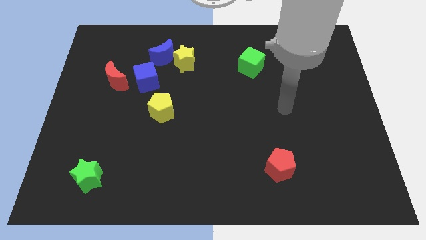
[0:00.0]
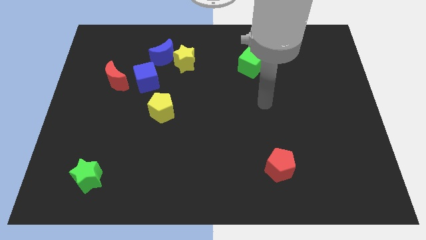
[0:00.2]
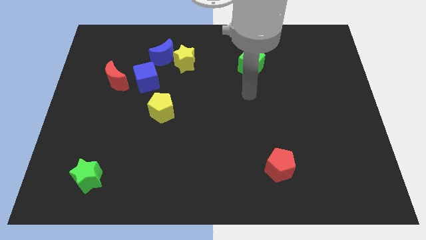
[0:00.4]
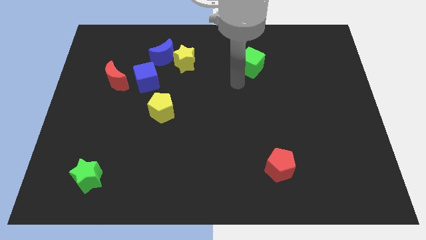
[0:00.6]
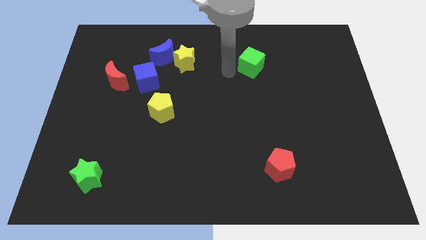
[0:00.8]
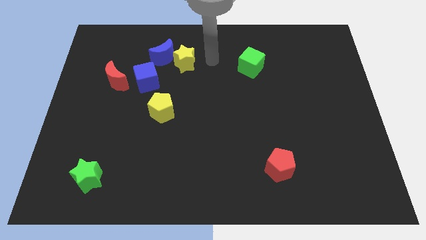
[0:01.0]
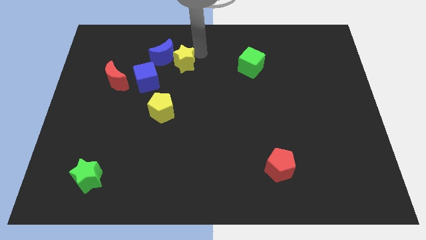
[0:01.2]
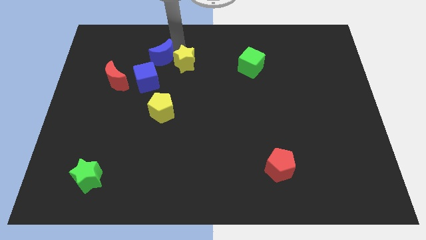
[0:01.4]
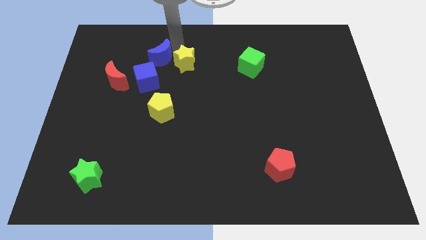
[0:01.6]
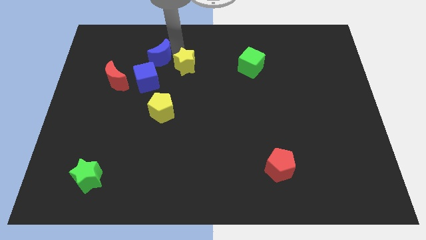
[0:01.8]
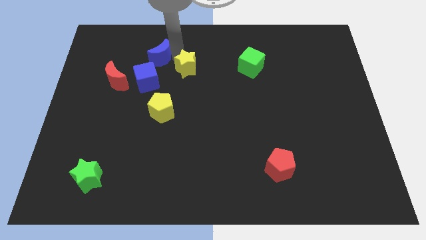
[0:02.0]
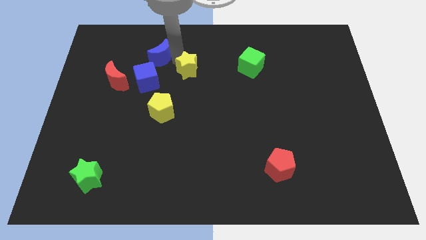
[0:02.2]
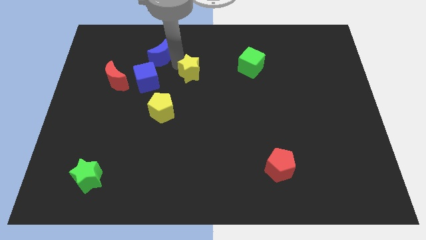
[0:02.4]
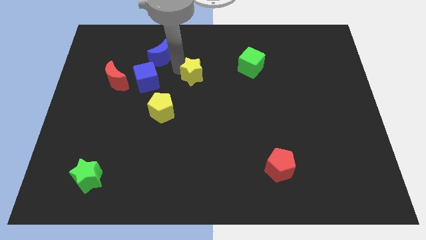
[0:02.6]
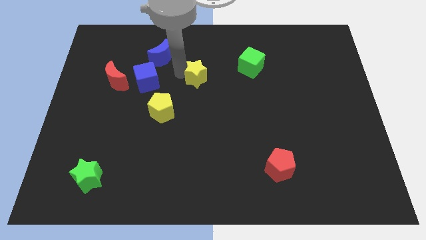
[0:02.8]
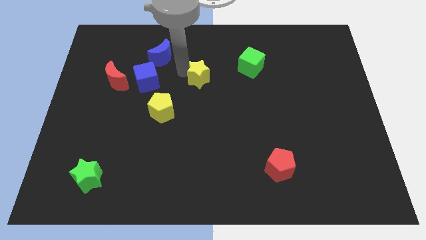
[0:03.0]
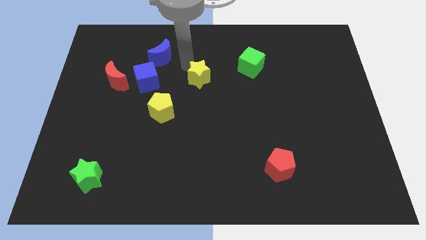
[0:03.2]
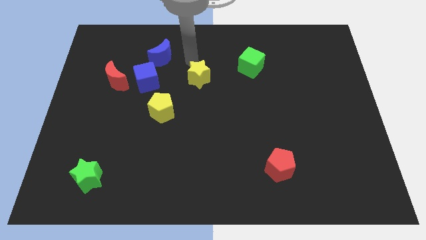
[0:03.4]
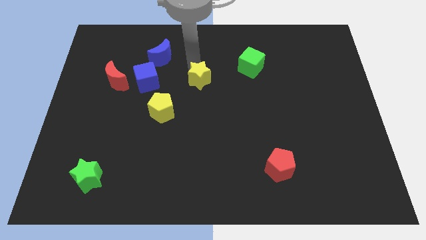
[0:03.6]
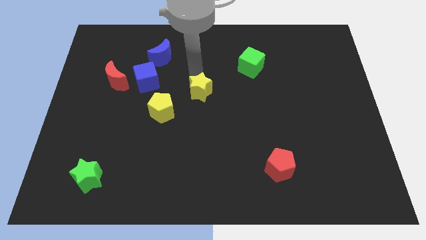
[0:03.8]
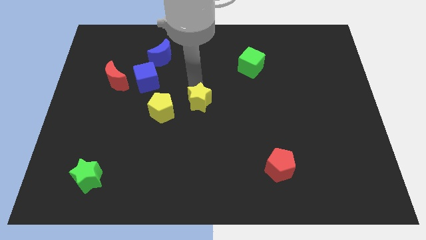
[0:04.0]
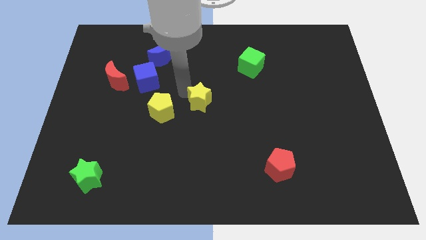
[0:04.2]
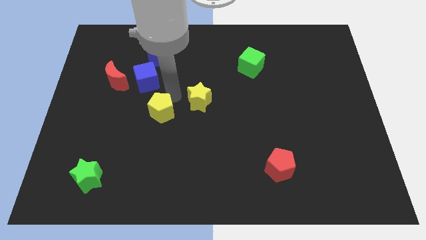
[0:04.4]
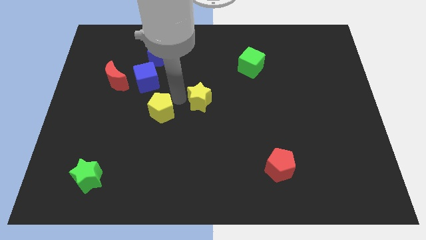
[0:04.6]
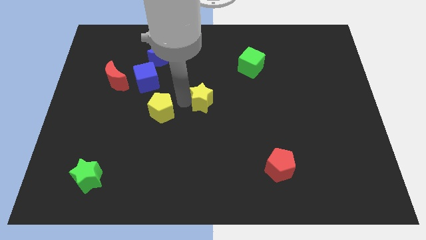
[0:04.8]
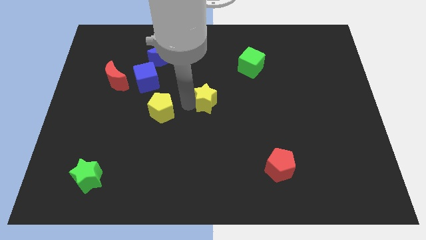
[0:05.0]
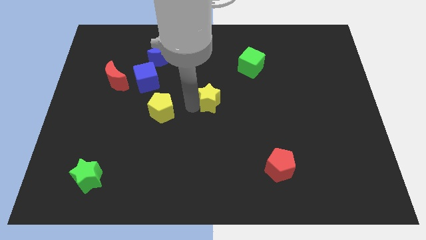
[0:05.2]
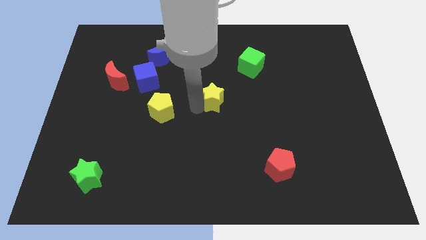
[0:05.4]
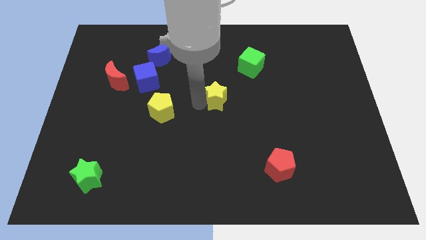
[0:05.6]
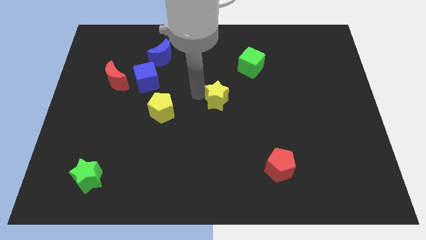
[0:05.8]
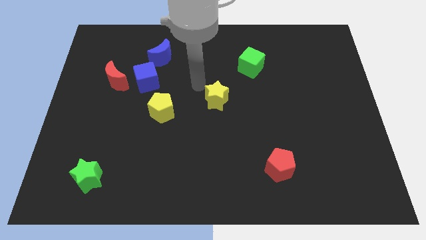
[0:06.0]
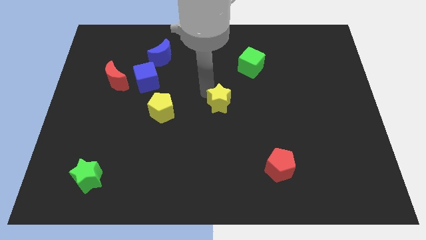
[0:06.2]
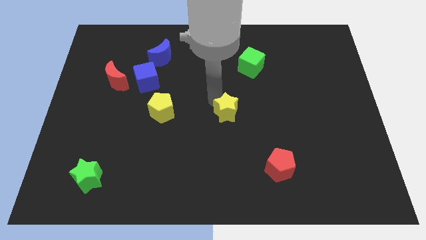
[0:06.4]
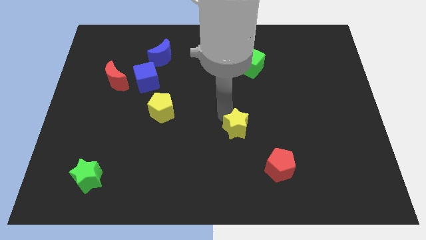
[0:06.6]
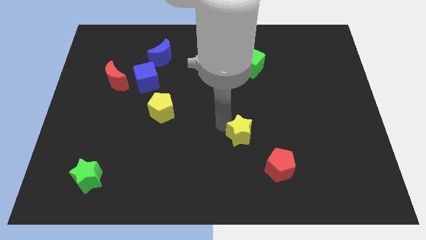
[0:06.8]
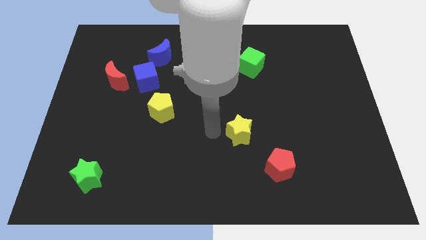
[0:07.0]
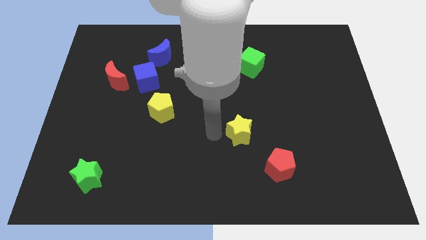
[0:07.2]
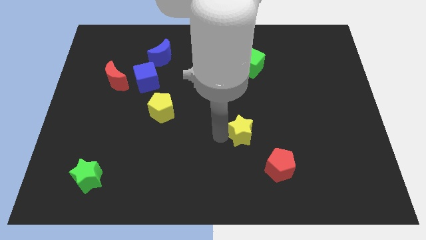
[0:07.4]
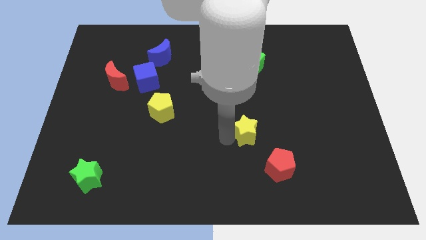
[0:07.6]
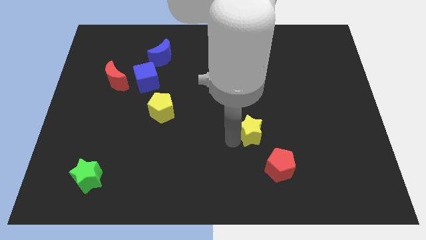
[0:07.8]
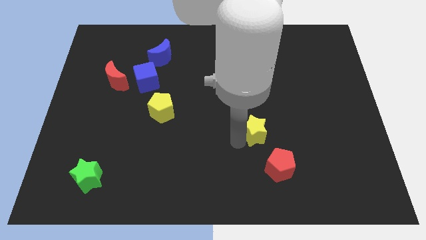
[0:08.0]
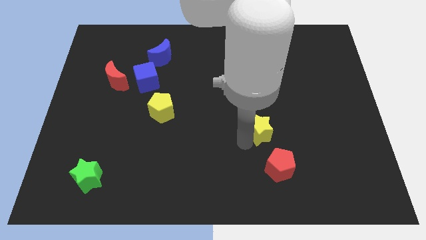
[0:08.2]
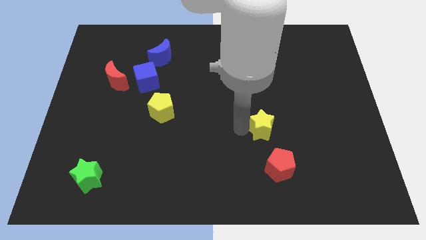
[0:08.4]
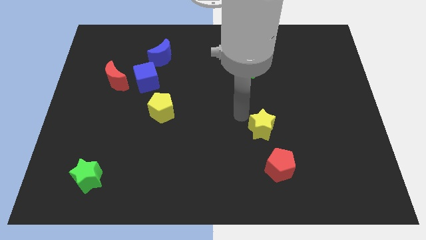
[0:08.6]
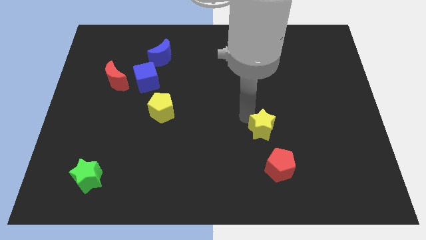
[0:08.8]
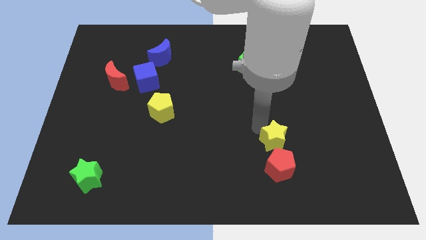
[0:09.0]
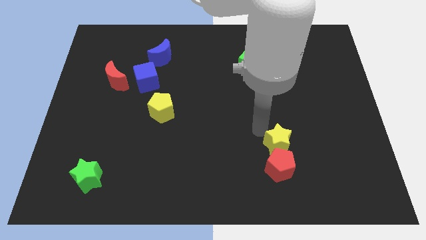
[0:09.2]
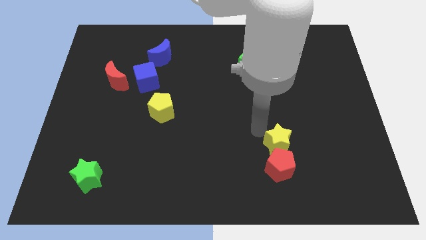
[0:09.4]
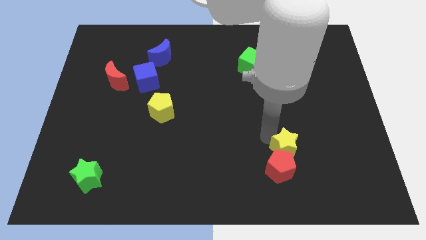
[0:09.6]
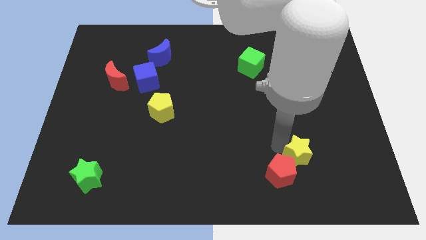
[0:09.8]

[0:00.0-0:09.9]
put the yellow star to the right side of the red pentagon

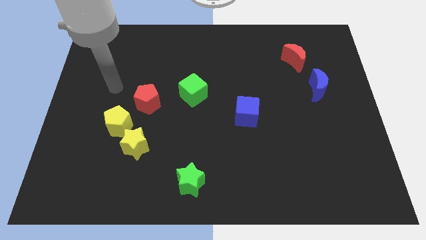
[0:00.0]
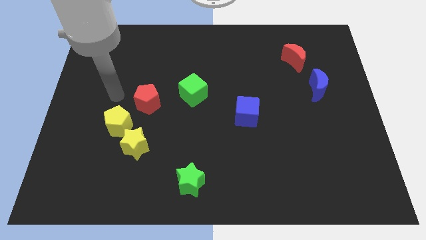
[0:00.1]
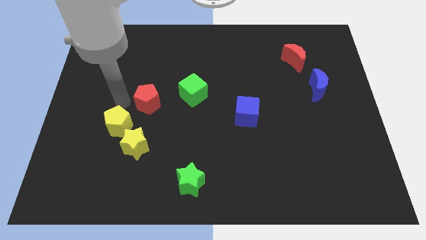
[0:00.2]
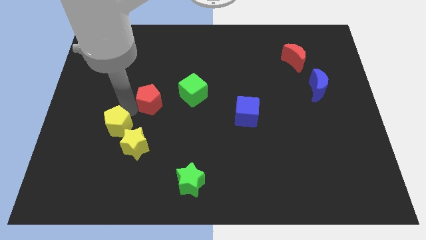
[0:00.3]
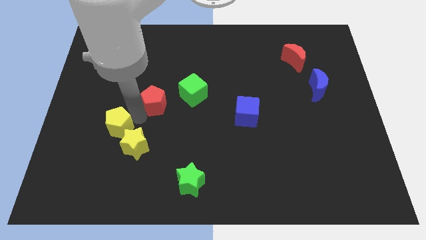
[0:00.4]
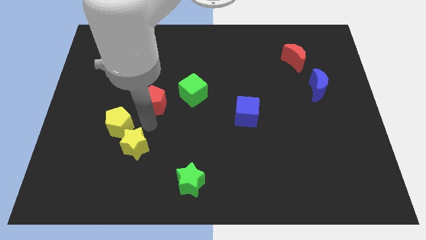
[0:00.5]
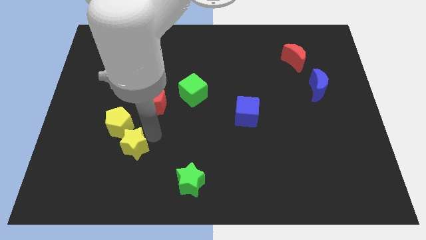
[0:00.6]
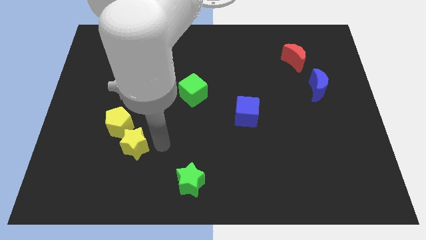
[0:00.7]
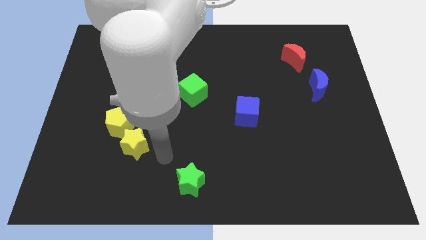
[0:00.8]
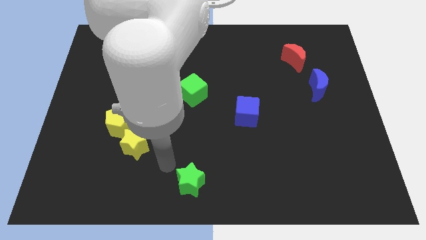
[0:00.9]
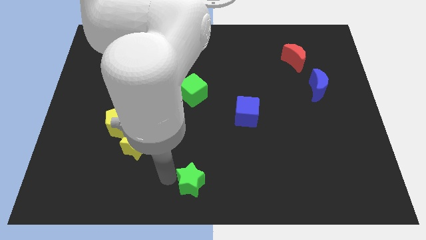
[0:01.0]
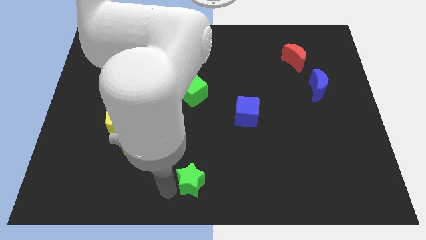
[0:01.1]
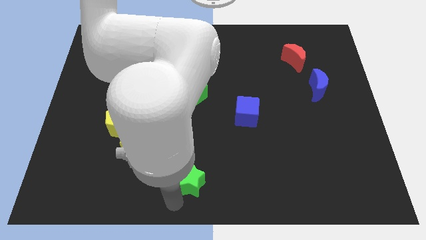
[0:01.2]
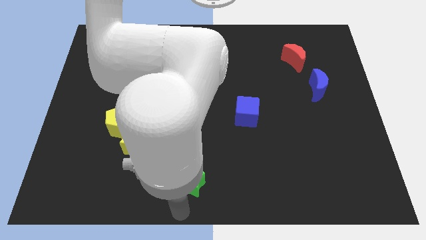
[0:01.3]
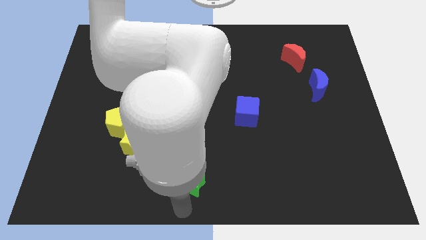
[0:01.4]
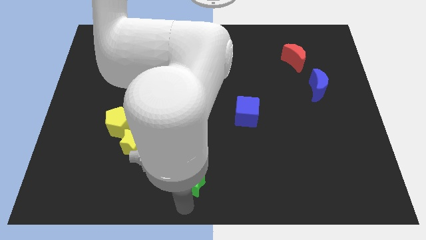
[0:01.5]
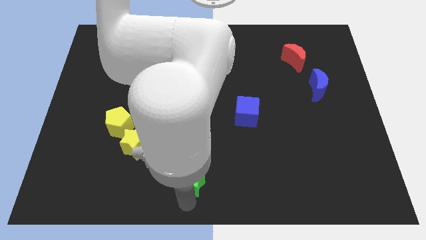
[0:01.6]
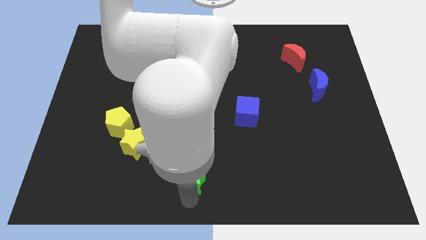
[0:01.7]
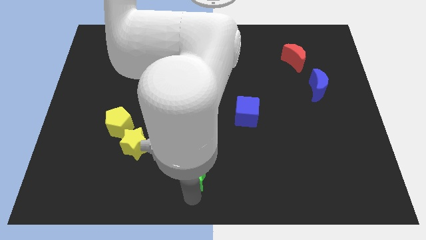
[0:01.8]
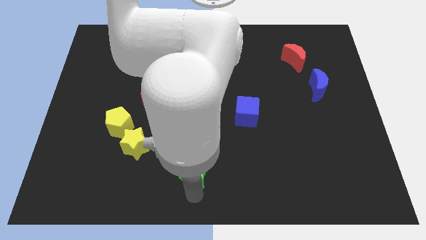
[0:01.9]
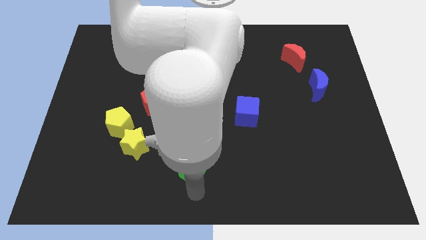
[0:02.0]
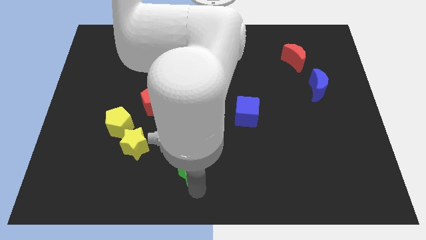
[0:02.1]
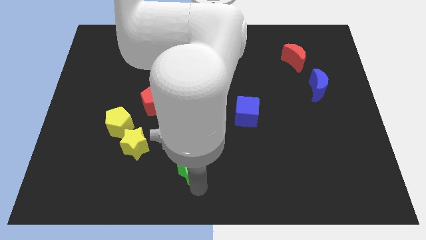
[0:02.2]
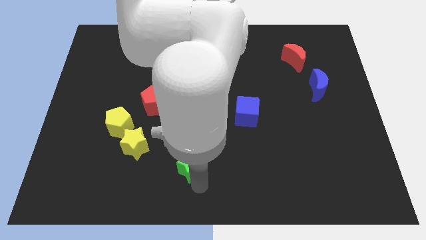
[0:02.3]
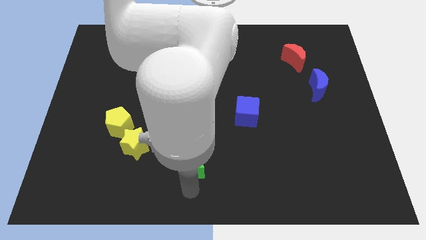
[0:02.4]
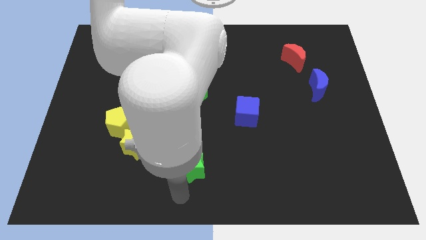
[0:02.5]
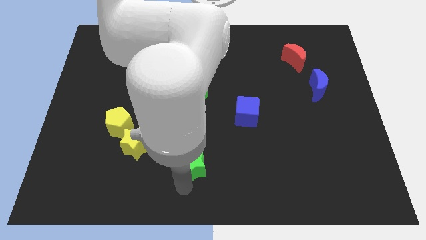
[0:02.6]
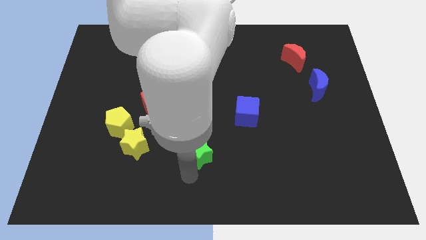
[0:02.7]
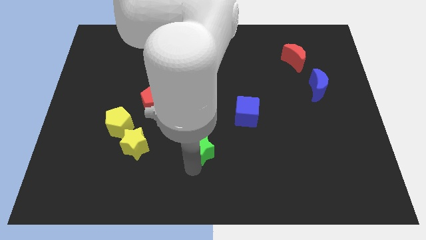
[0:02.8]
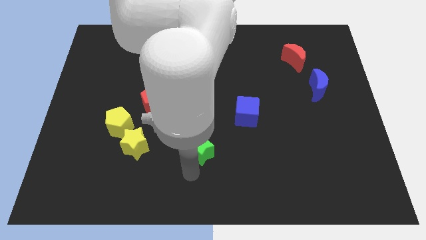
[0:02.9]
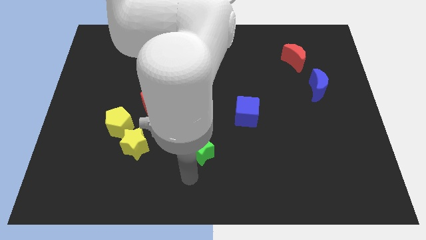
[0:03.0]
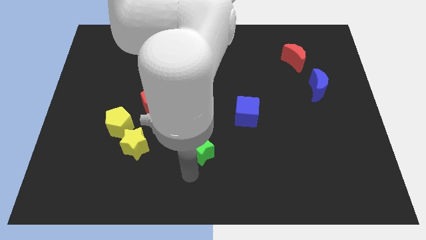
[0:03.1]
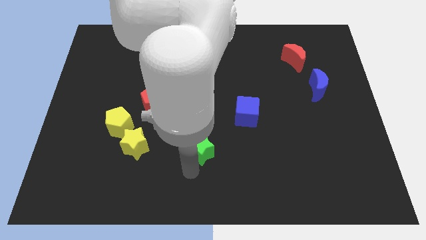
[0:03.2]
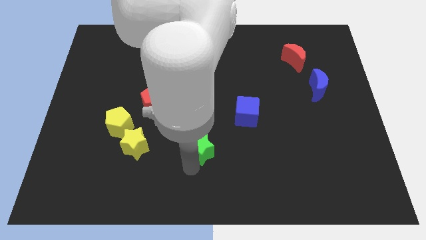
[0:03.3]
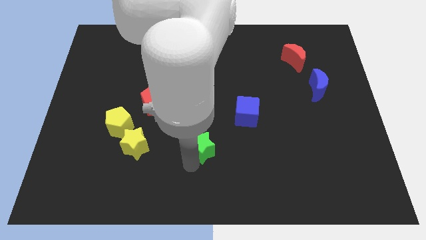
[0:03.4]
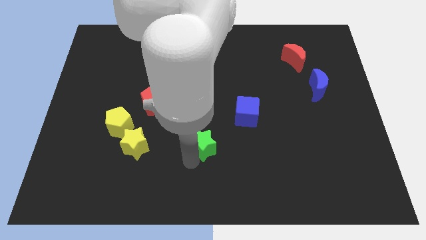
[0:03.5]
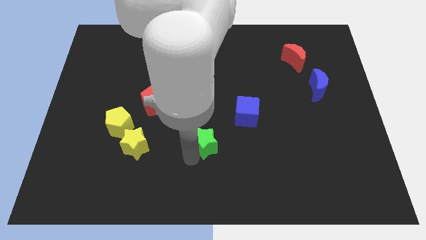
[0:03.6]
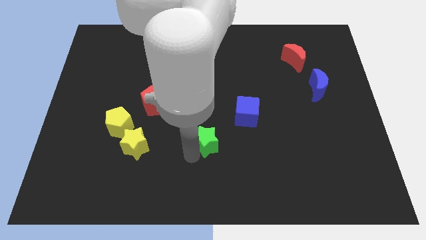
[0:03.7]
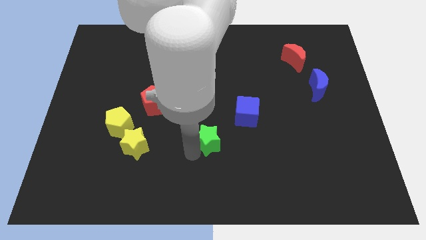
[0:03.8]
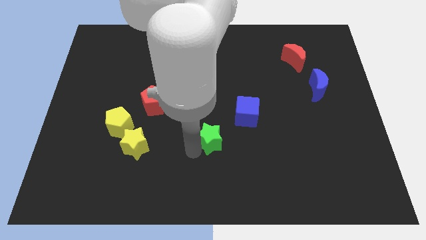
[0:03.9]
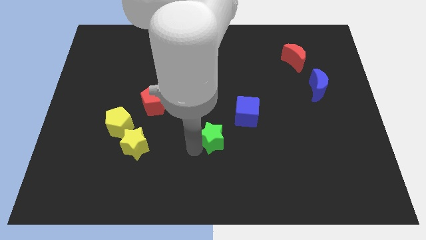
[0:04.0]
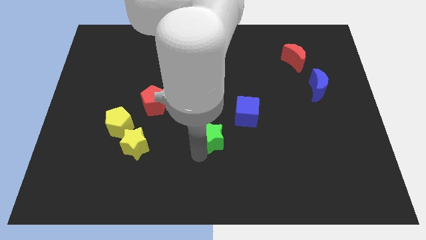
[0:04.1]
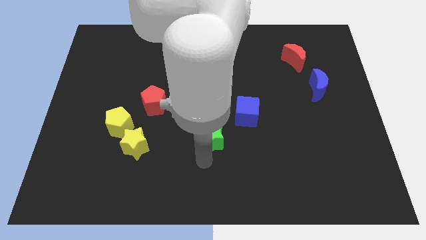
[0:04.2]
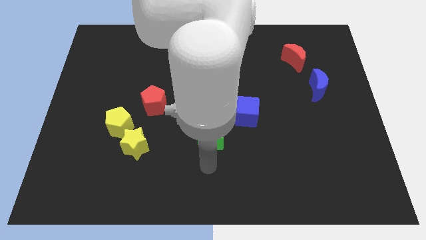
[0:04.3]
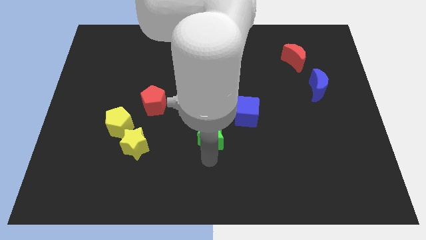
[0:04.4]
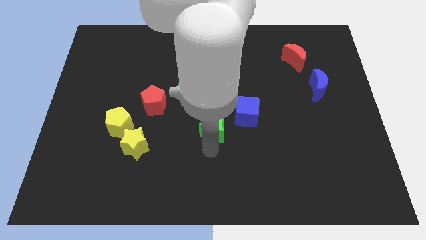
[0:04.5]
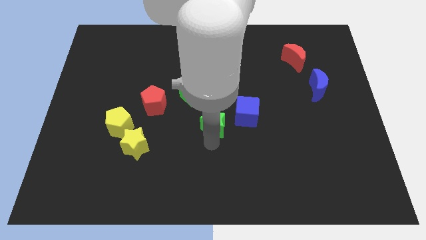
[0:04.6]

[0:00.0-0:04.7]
move the green star to the bottom right side of the green cube
